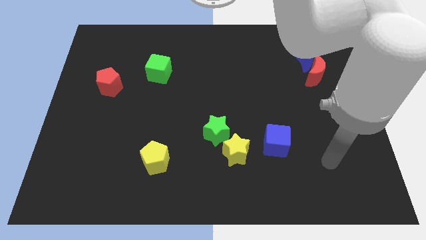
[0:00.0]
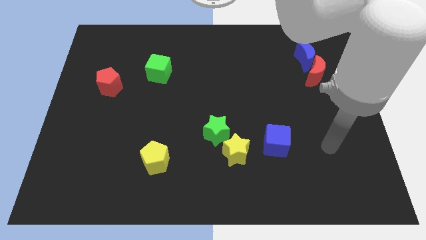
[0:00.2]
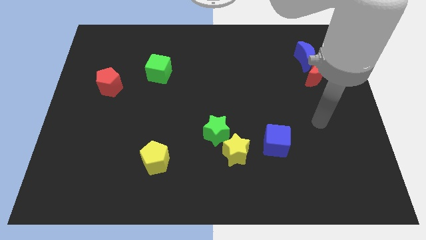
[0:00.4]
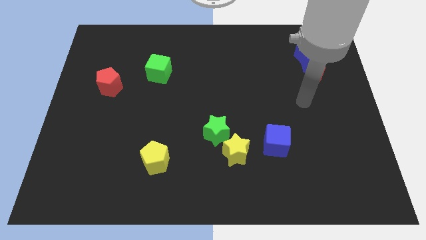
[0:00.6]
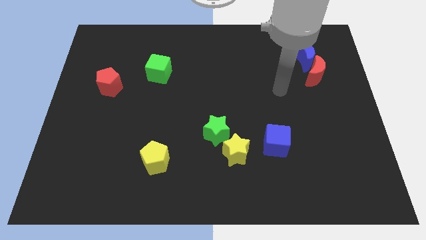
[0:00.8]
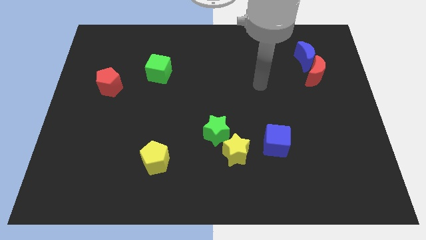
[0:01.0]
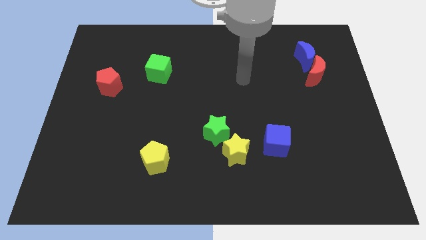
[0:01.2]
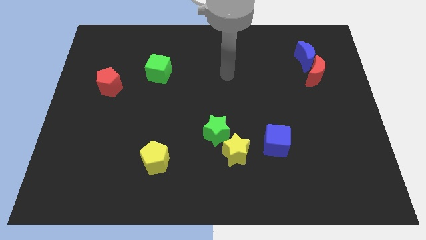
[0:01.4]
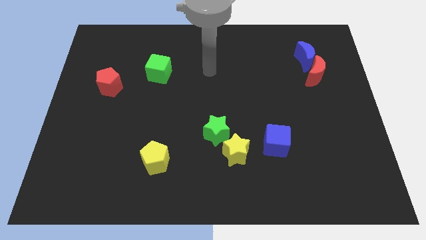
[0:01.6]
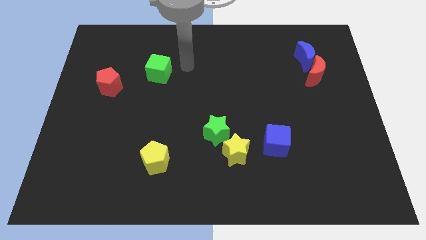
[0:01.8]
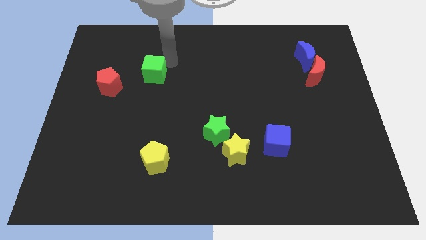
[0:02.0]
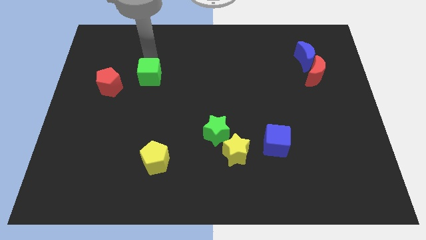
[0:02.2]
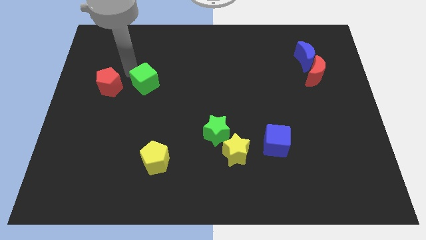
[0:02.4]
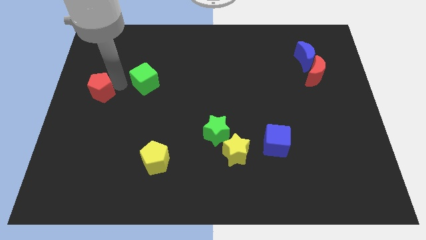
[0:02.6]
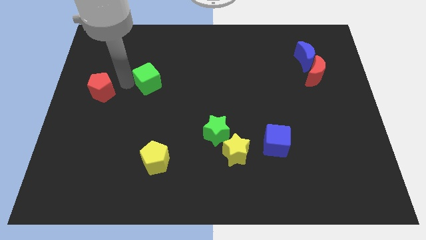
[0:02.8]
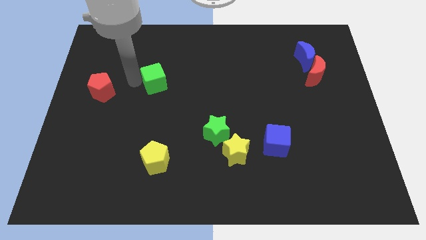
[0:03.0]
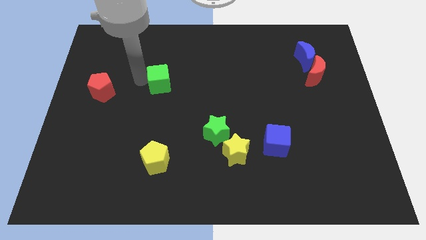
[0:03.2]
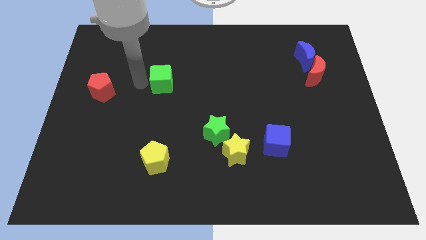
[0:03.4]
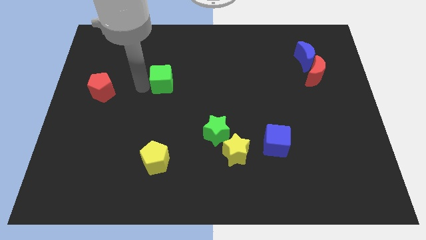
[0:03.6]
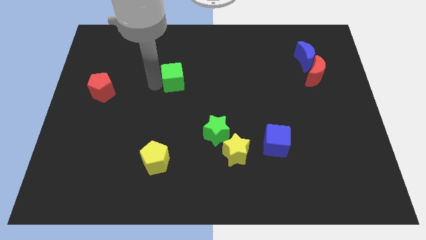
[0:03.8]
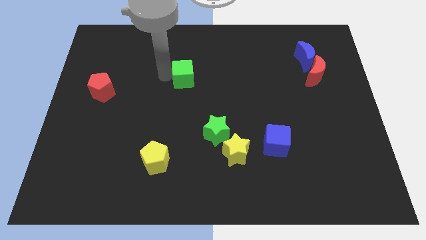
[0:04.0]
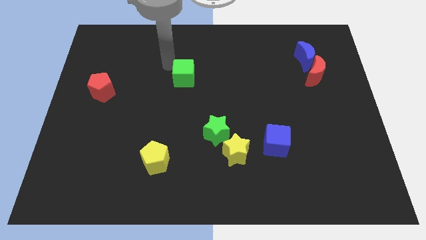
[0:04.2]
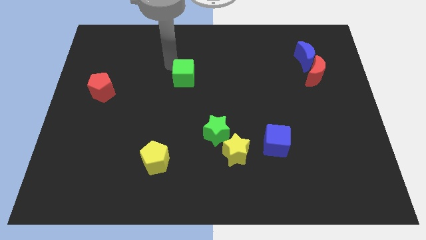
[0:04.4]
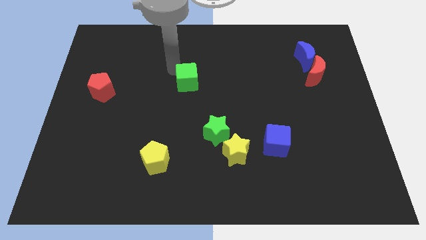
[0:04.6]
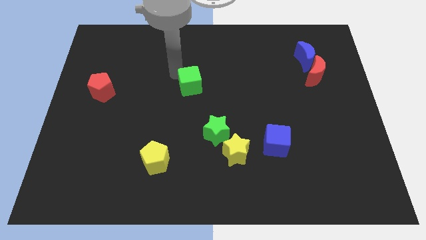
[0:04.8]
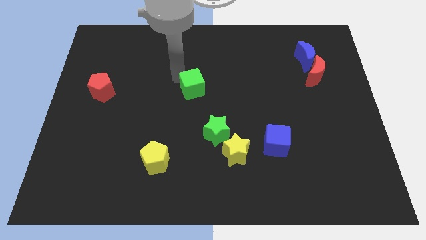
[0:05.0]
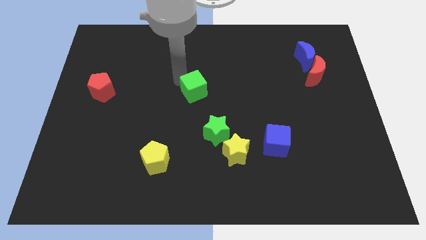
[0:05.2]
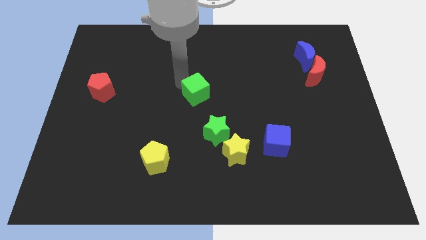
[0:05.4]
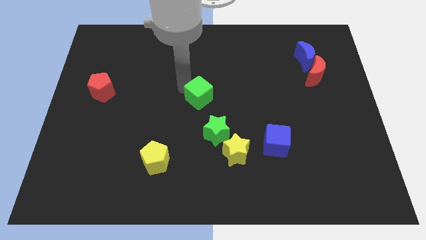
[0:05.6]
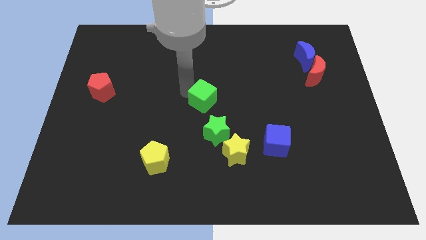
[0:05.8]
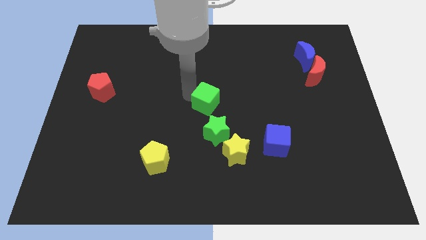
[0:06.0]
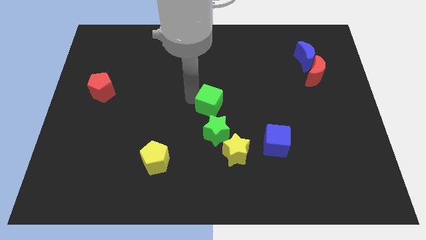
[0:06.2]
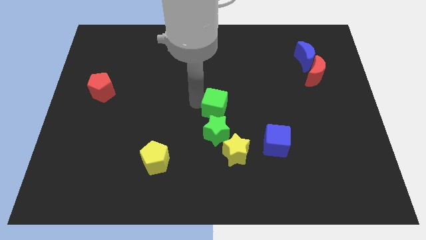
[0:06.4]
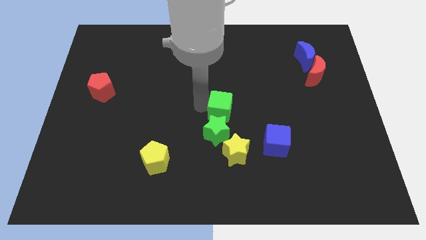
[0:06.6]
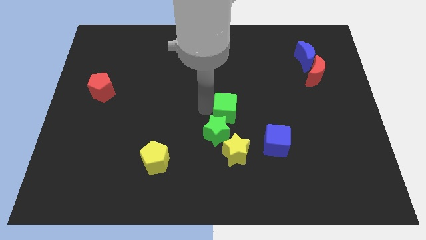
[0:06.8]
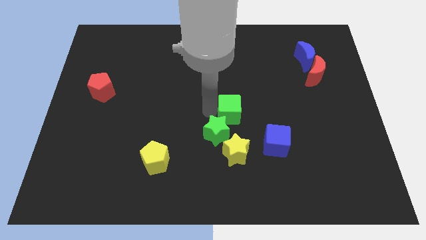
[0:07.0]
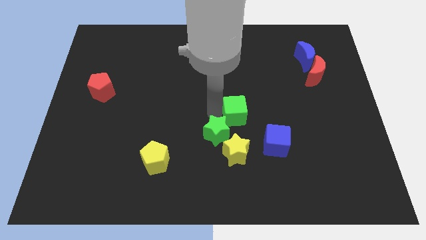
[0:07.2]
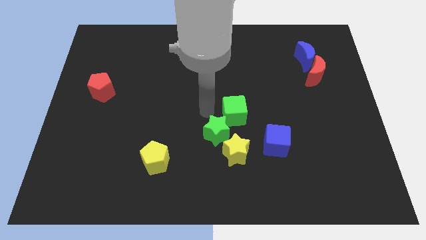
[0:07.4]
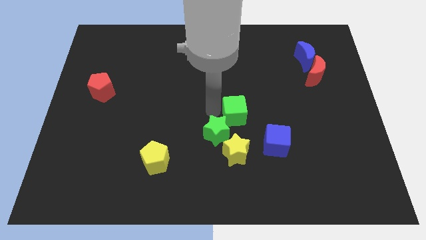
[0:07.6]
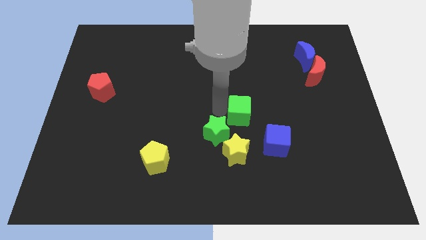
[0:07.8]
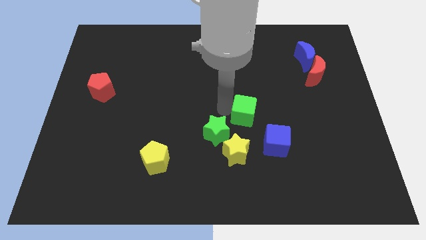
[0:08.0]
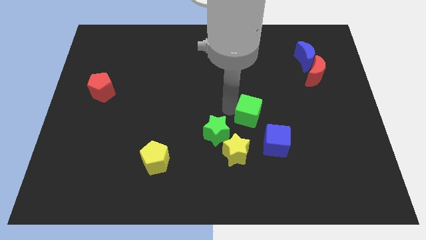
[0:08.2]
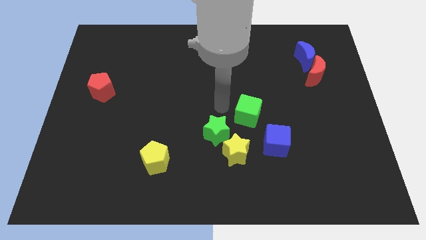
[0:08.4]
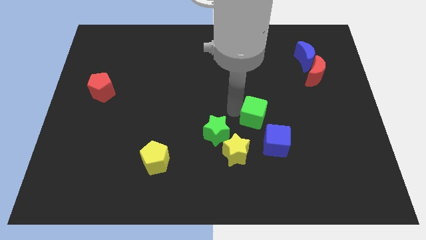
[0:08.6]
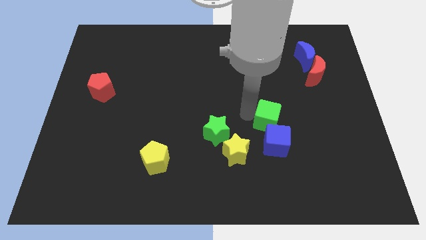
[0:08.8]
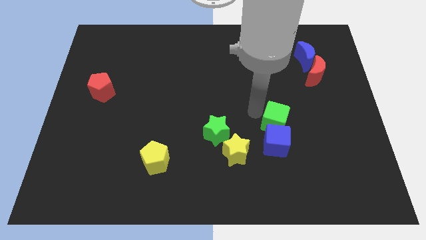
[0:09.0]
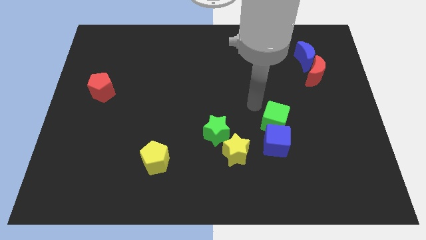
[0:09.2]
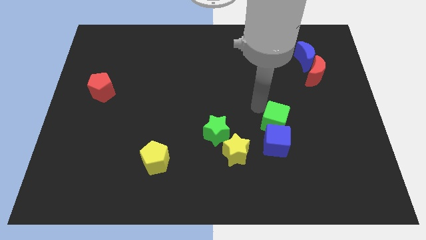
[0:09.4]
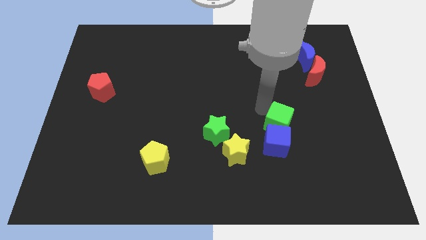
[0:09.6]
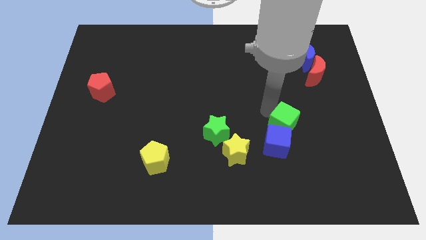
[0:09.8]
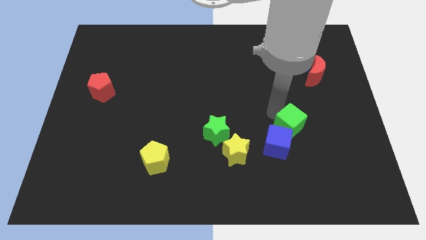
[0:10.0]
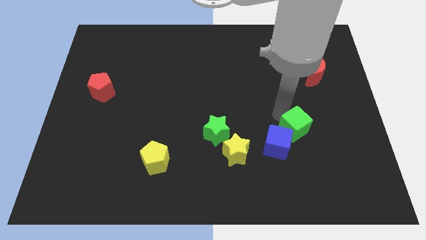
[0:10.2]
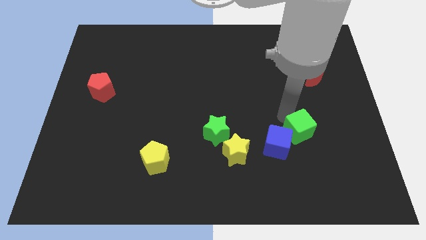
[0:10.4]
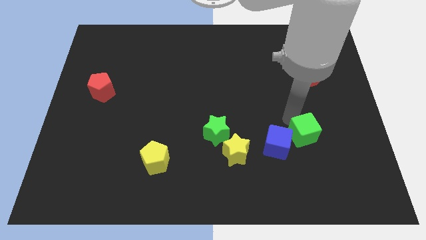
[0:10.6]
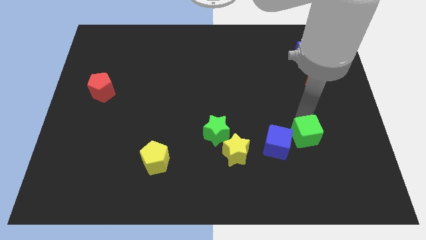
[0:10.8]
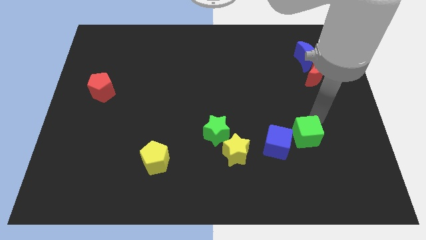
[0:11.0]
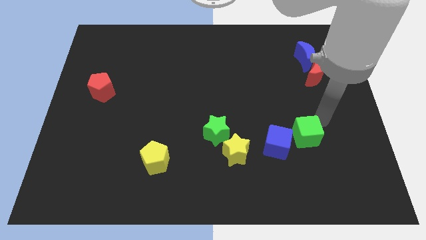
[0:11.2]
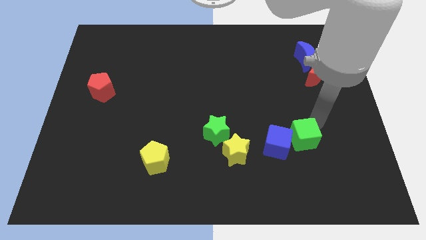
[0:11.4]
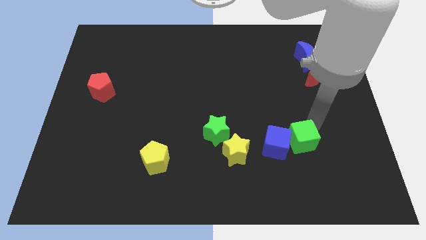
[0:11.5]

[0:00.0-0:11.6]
push the green cube just right of the yellow star

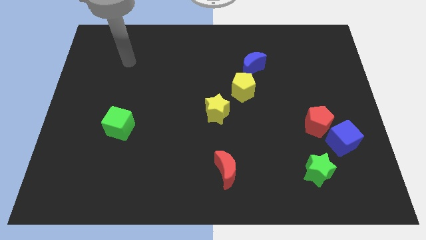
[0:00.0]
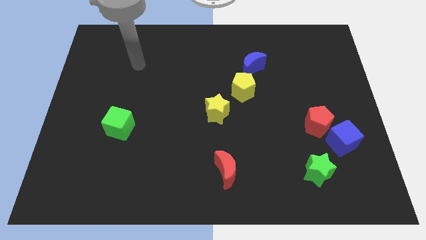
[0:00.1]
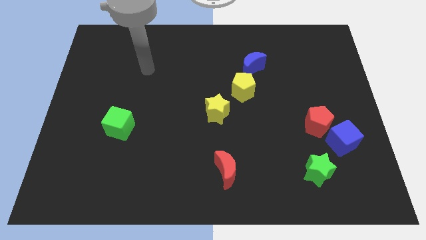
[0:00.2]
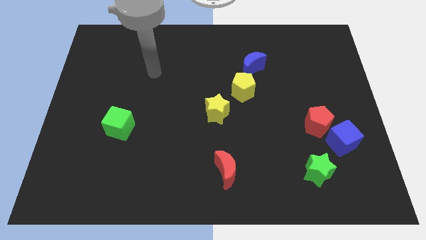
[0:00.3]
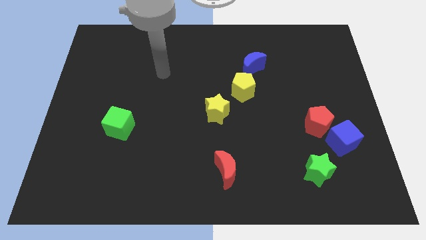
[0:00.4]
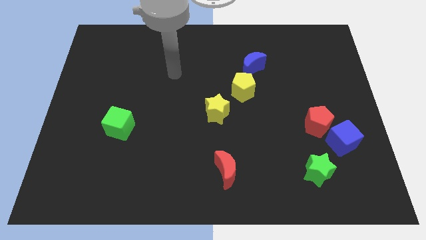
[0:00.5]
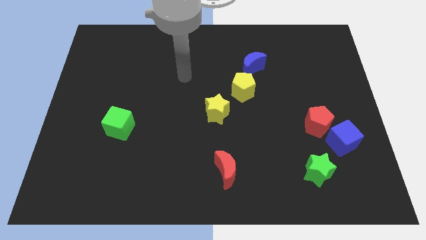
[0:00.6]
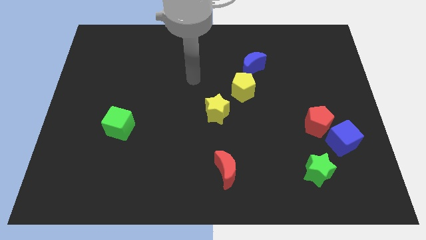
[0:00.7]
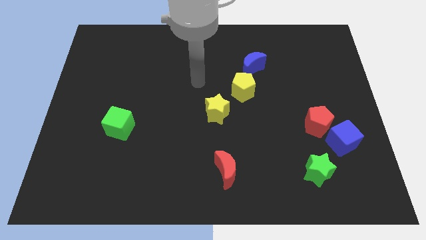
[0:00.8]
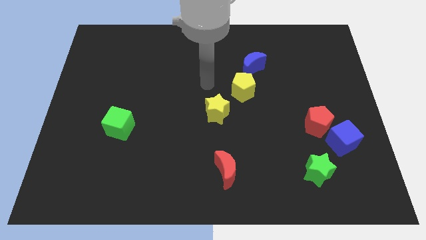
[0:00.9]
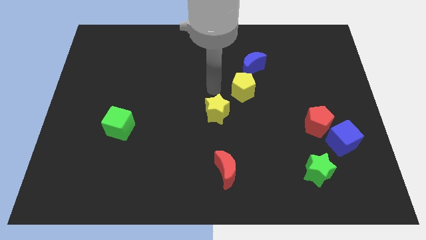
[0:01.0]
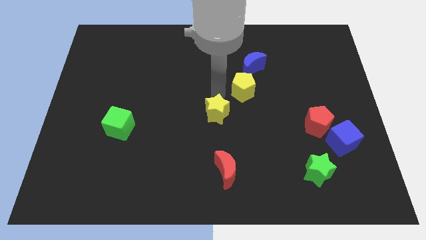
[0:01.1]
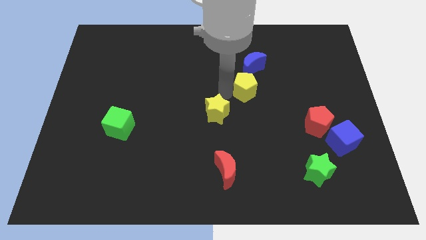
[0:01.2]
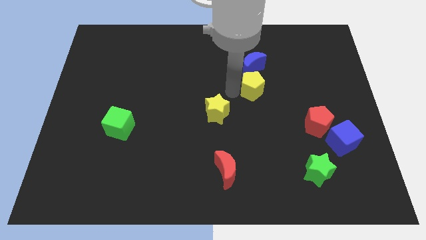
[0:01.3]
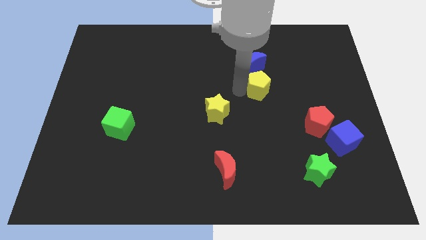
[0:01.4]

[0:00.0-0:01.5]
put the yellow pentagon to the bottom right side of the blue moon
